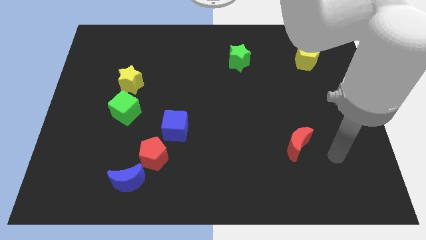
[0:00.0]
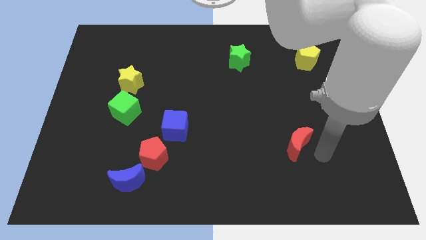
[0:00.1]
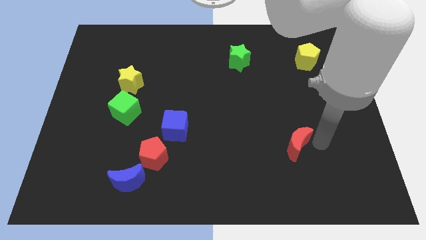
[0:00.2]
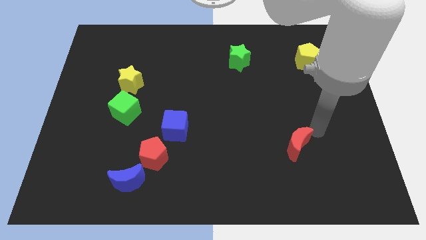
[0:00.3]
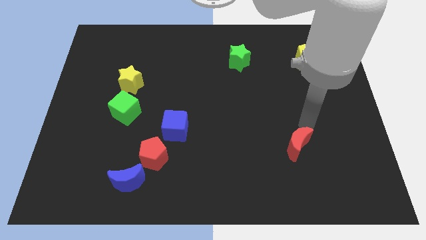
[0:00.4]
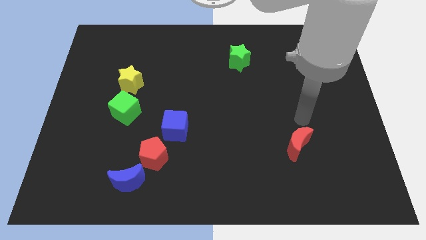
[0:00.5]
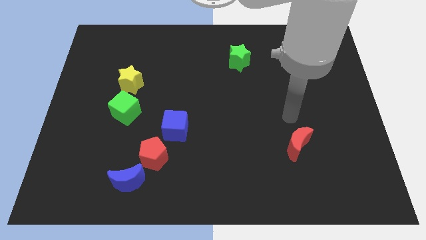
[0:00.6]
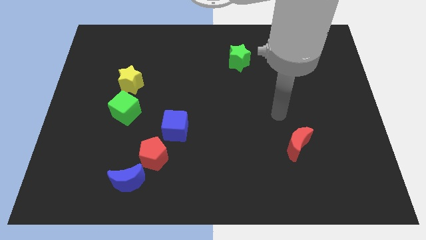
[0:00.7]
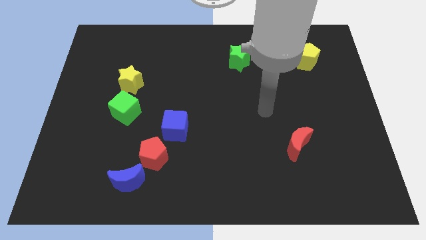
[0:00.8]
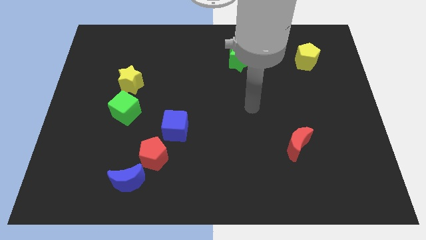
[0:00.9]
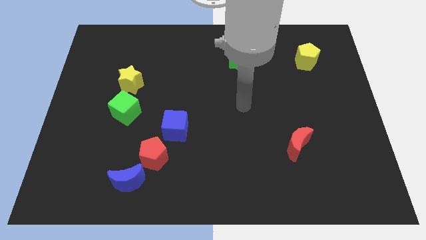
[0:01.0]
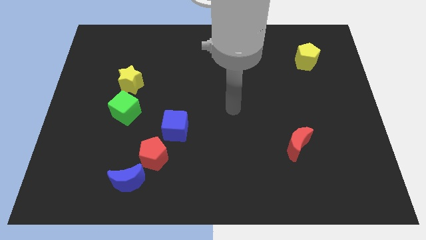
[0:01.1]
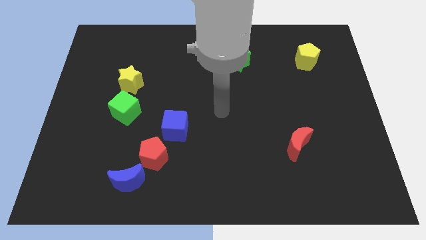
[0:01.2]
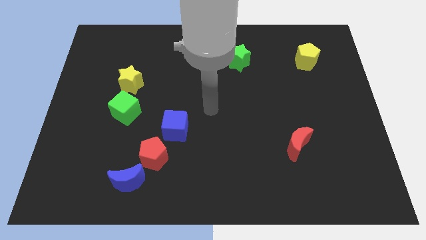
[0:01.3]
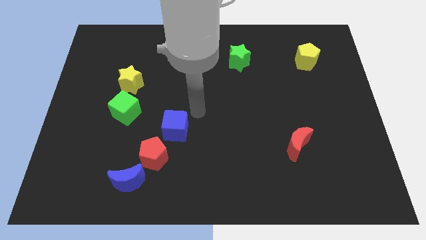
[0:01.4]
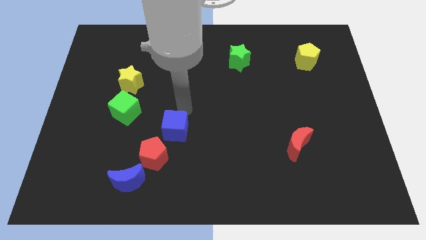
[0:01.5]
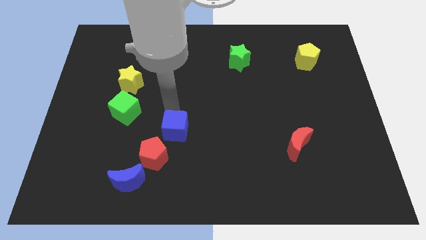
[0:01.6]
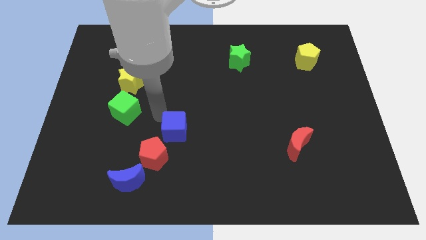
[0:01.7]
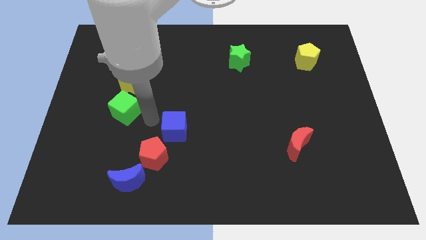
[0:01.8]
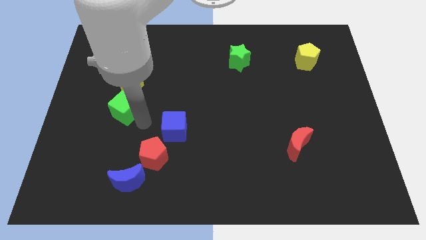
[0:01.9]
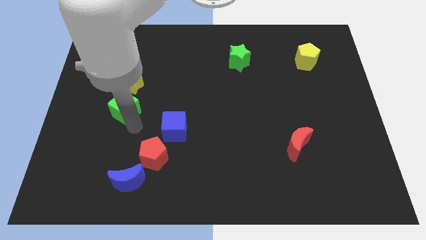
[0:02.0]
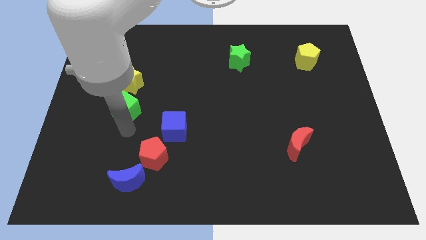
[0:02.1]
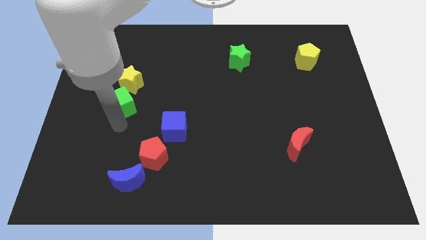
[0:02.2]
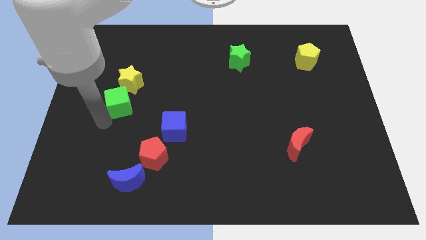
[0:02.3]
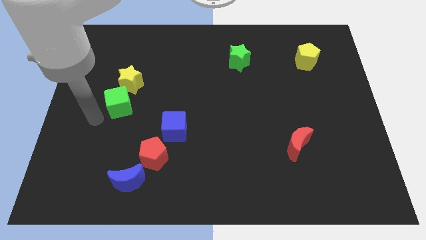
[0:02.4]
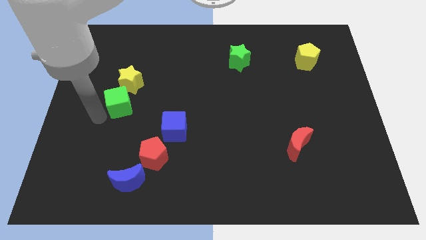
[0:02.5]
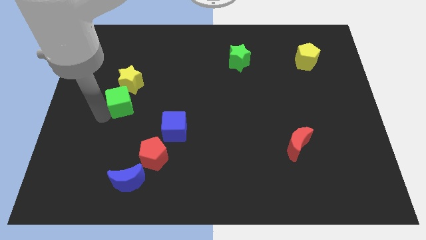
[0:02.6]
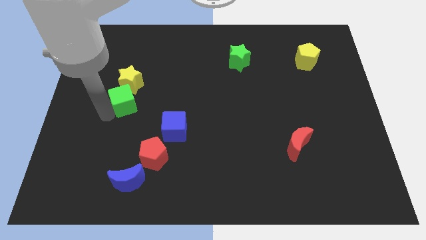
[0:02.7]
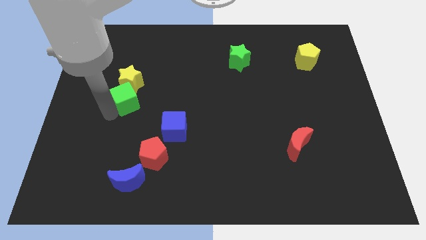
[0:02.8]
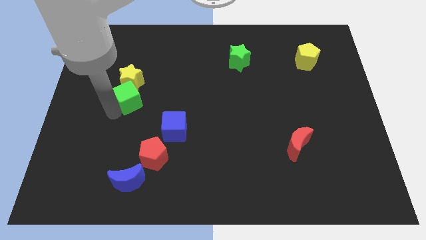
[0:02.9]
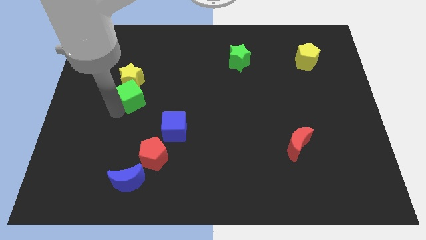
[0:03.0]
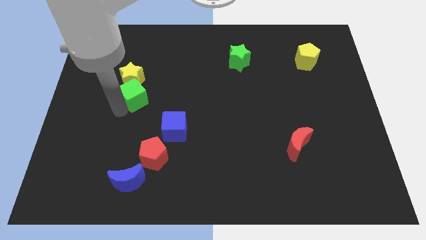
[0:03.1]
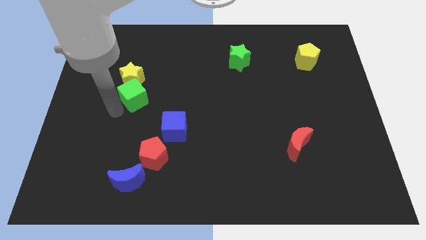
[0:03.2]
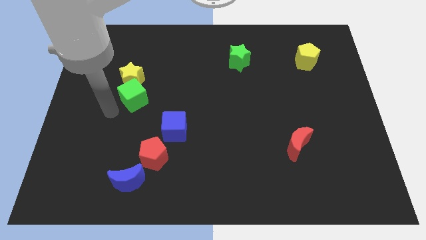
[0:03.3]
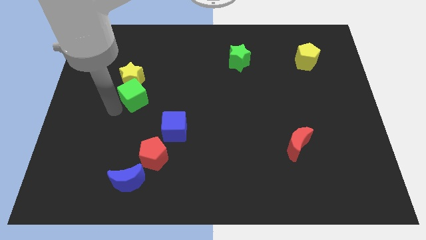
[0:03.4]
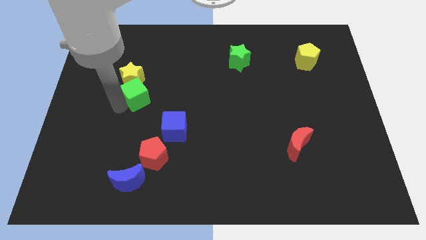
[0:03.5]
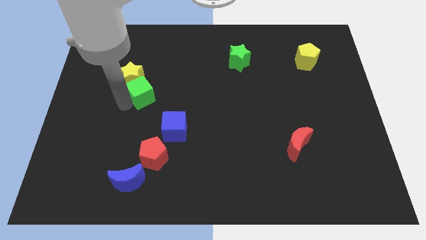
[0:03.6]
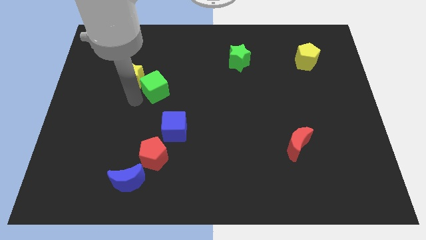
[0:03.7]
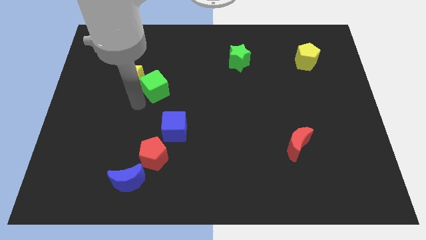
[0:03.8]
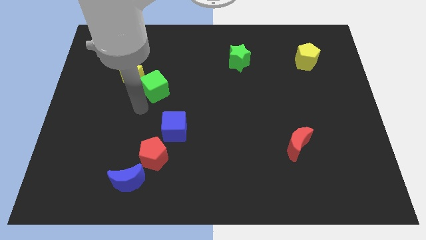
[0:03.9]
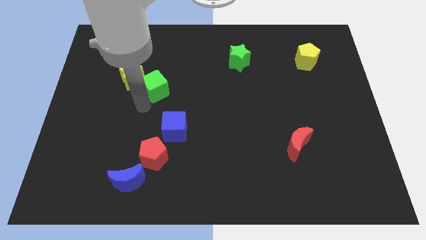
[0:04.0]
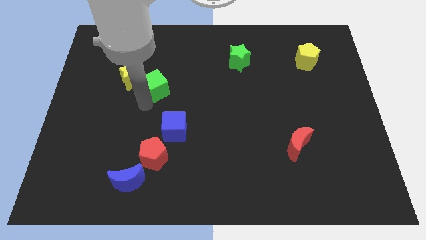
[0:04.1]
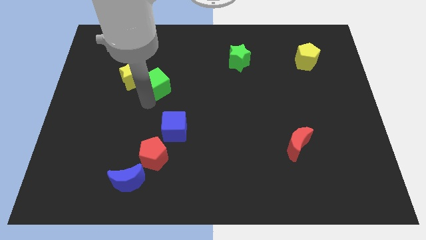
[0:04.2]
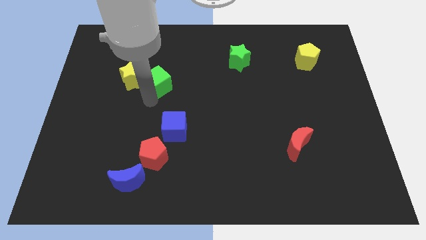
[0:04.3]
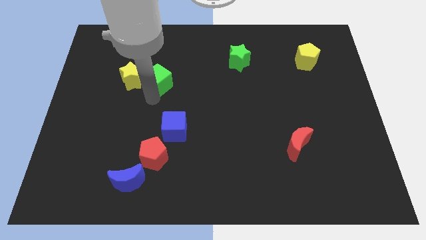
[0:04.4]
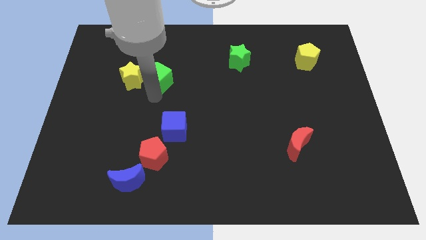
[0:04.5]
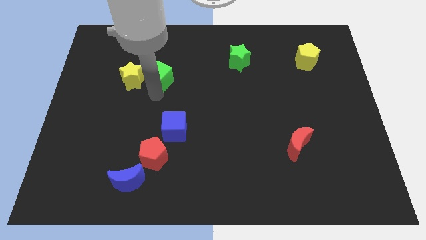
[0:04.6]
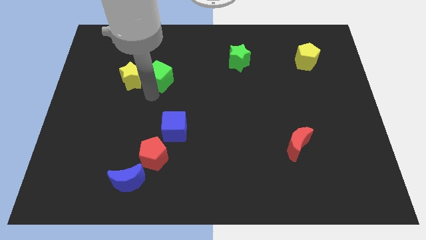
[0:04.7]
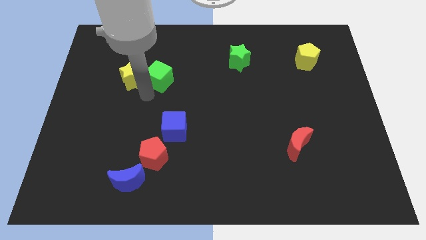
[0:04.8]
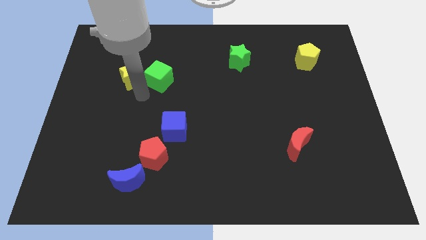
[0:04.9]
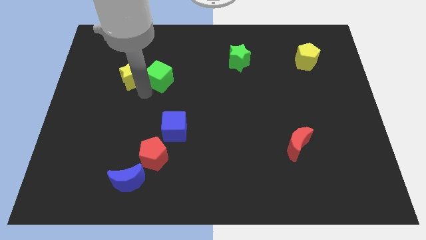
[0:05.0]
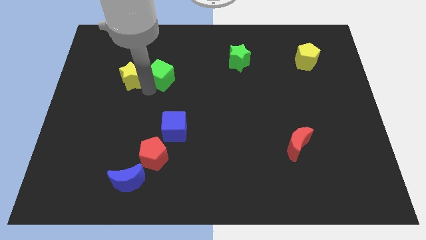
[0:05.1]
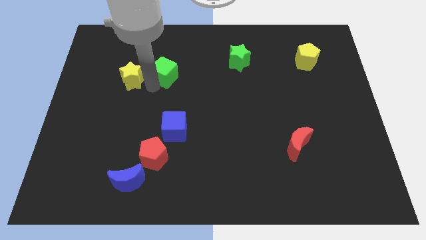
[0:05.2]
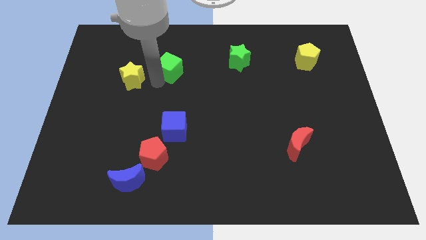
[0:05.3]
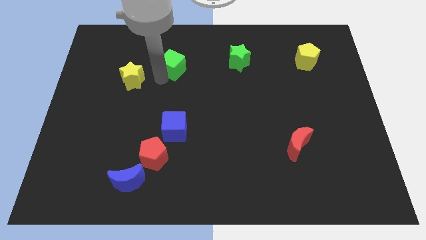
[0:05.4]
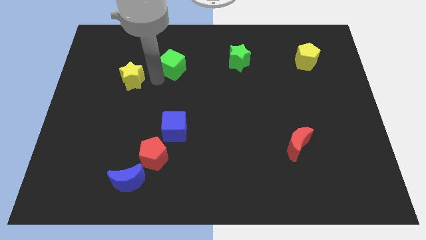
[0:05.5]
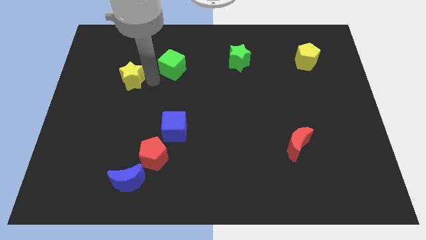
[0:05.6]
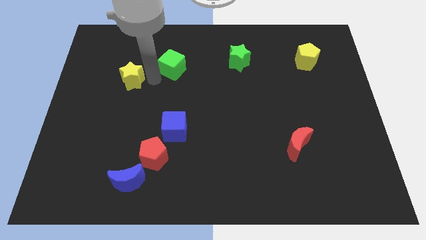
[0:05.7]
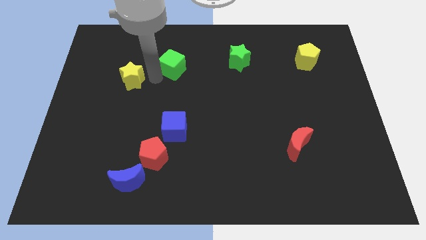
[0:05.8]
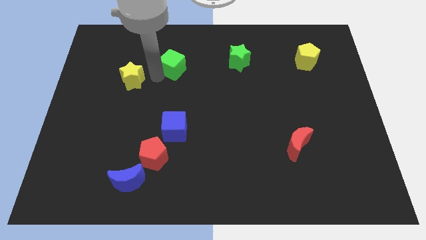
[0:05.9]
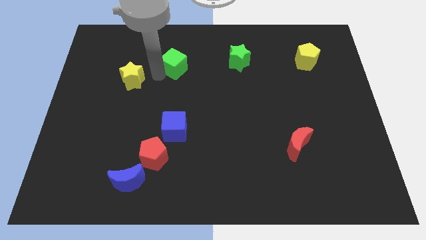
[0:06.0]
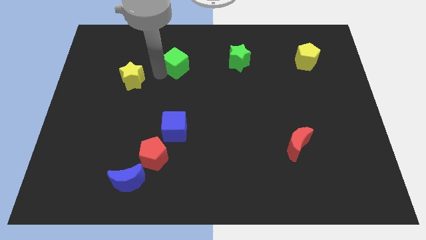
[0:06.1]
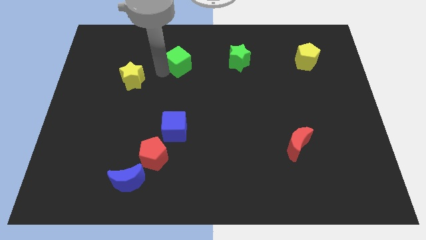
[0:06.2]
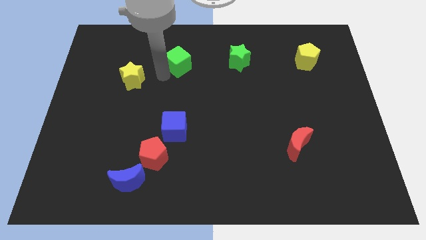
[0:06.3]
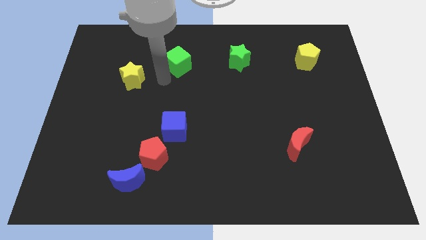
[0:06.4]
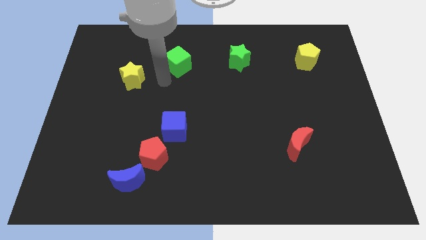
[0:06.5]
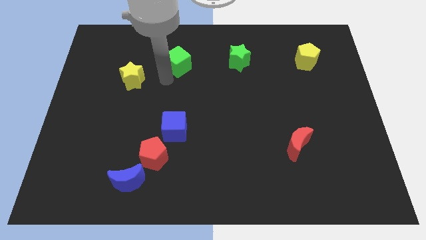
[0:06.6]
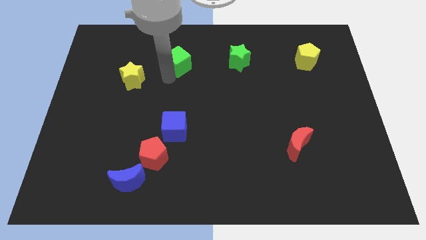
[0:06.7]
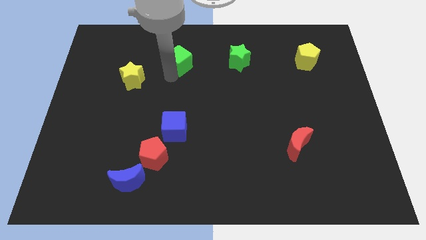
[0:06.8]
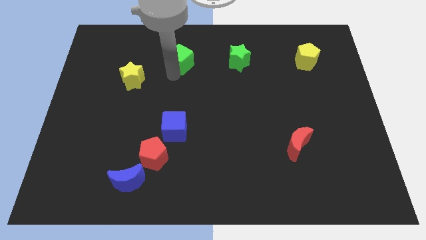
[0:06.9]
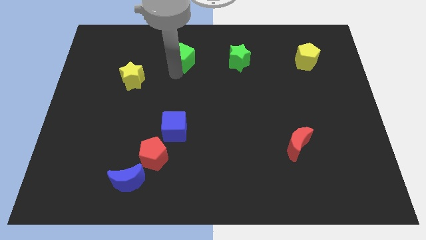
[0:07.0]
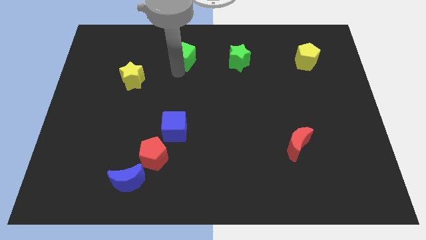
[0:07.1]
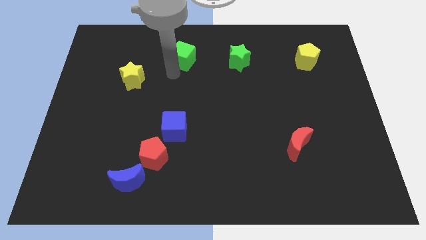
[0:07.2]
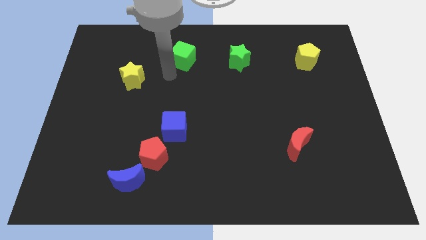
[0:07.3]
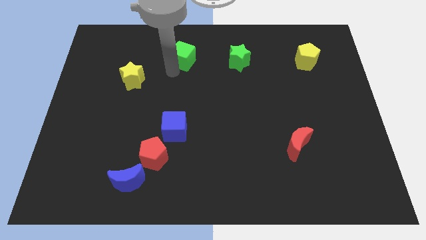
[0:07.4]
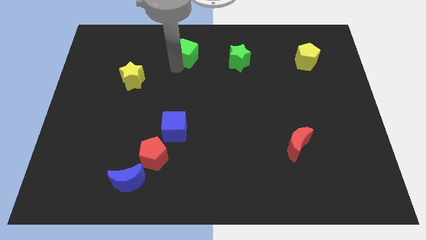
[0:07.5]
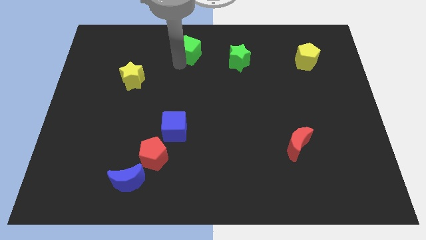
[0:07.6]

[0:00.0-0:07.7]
put the green cube to the top
